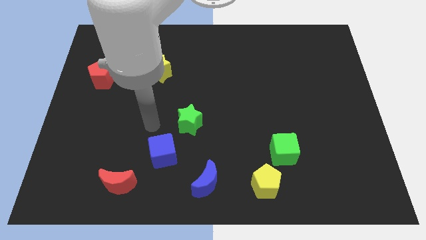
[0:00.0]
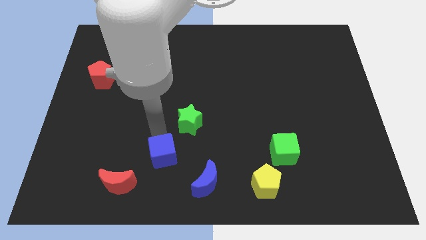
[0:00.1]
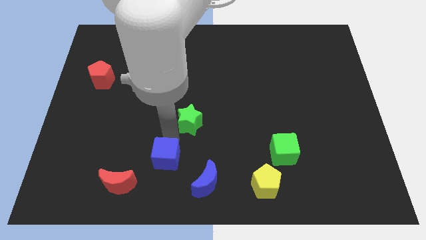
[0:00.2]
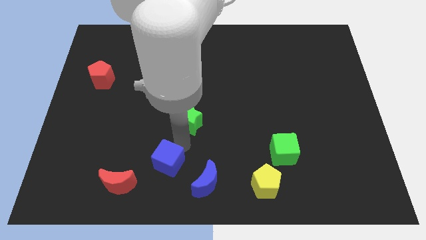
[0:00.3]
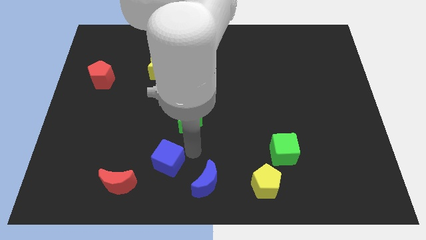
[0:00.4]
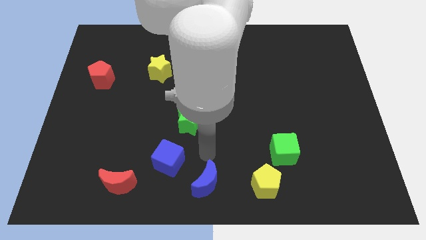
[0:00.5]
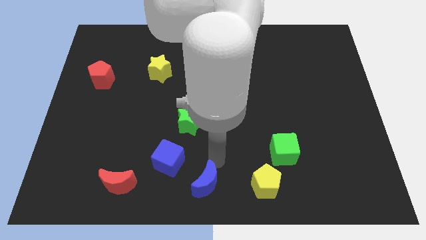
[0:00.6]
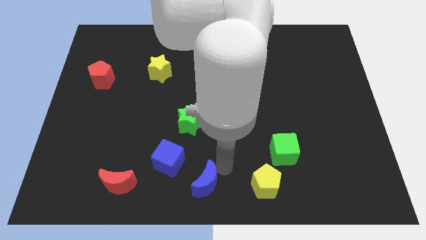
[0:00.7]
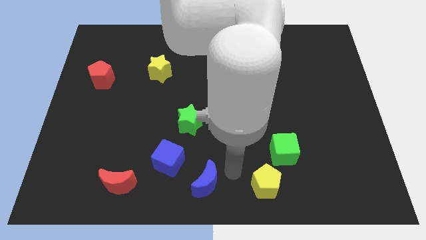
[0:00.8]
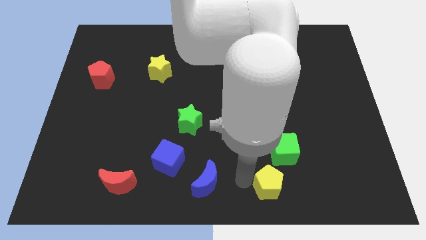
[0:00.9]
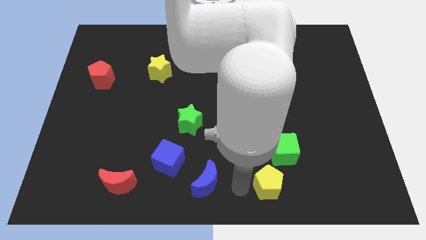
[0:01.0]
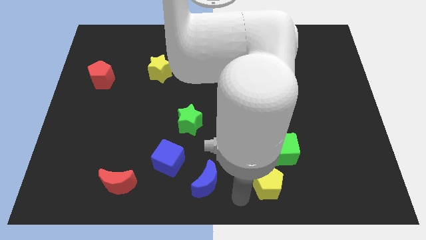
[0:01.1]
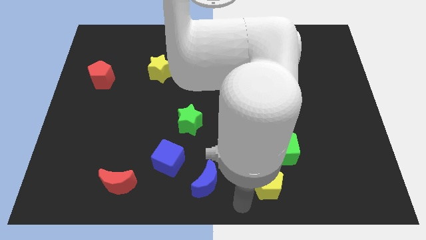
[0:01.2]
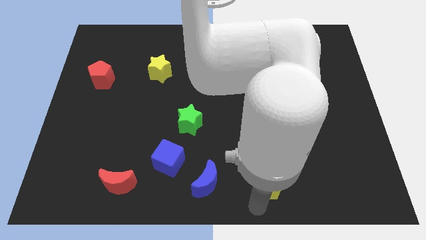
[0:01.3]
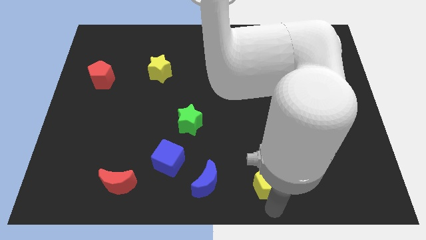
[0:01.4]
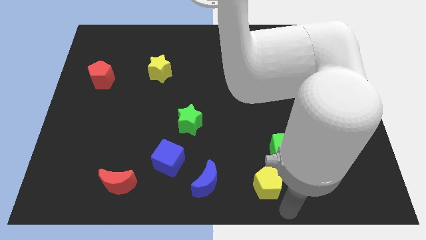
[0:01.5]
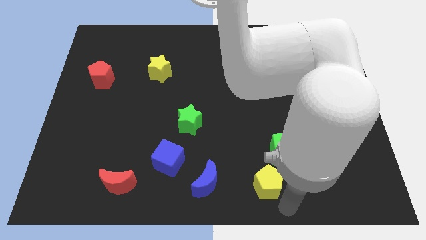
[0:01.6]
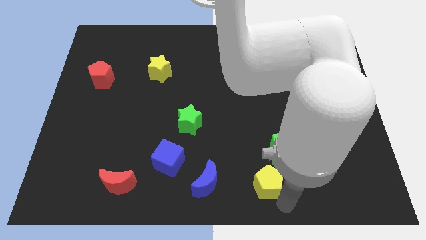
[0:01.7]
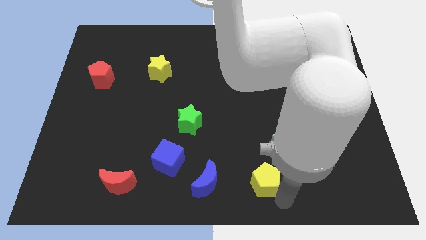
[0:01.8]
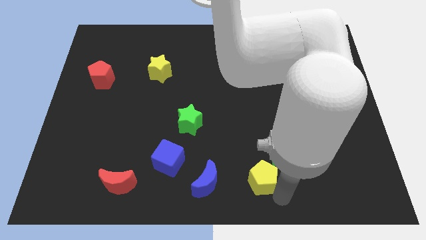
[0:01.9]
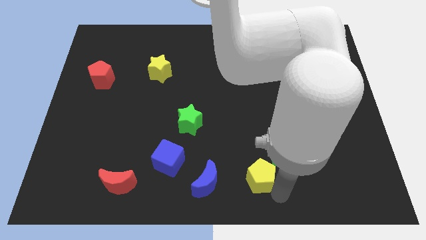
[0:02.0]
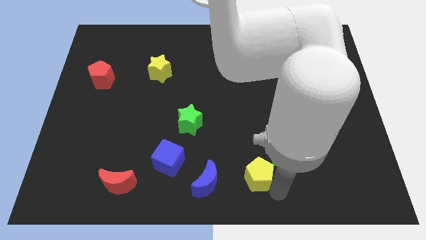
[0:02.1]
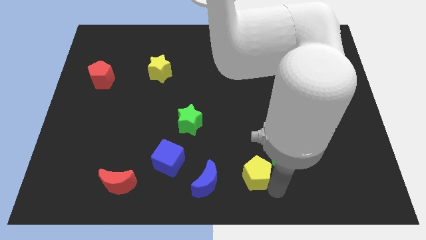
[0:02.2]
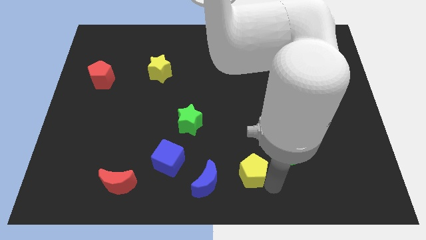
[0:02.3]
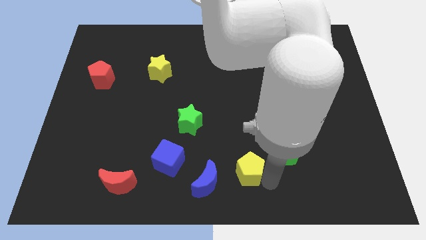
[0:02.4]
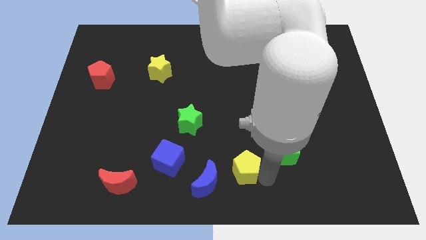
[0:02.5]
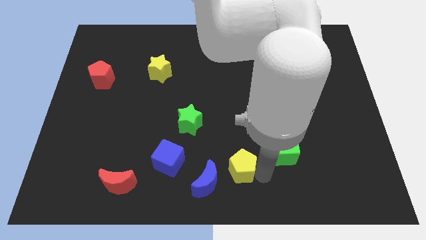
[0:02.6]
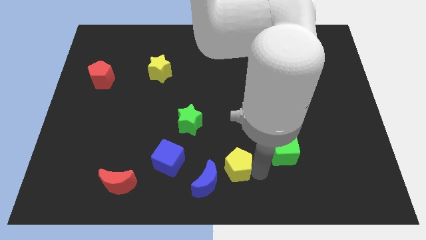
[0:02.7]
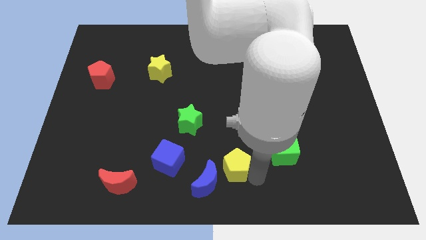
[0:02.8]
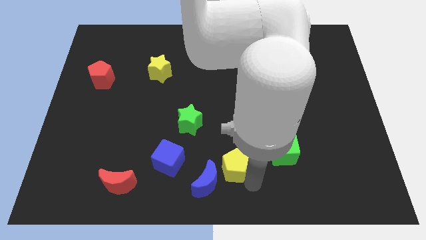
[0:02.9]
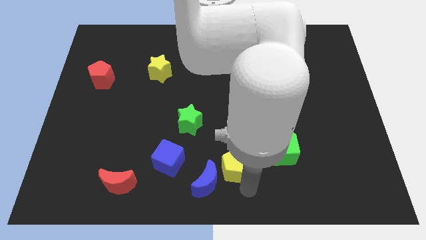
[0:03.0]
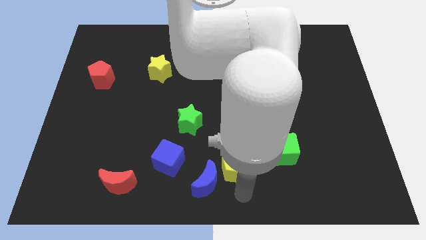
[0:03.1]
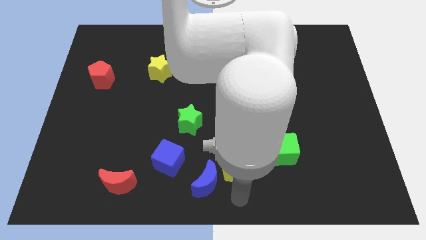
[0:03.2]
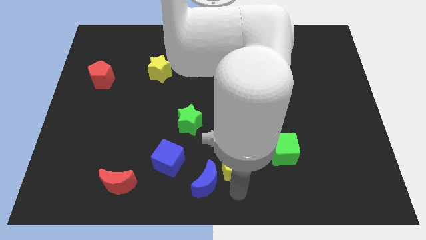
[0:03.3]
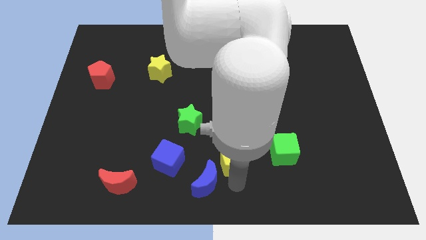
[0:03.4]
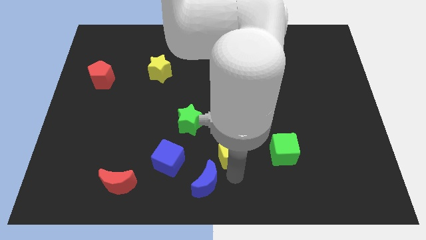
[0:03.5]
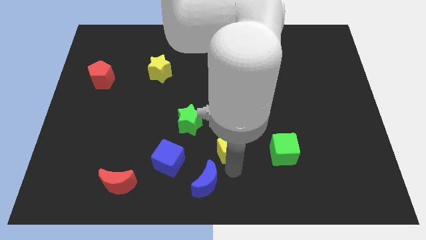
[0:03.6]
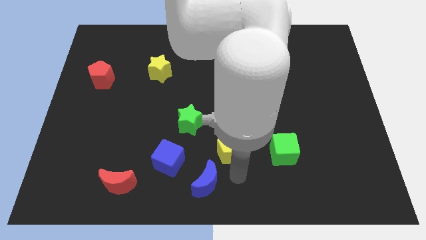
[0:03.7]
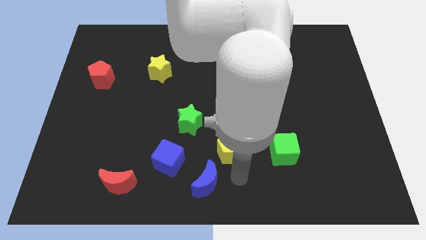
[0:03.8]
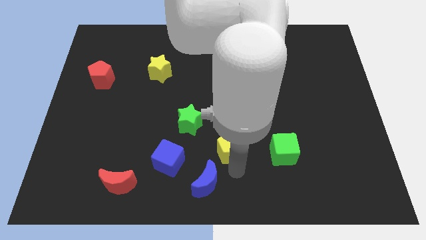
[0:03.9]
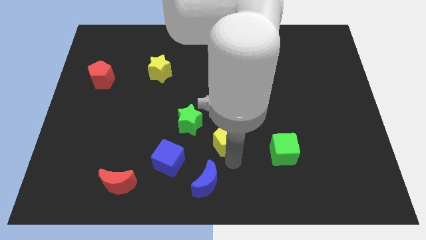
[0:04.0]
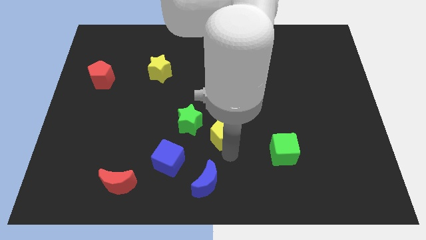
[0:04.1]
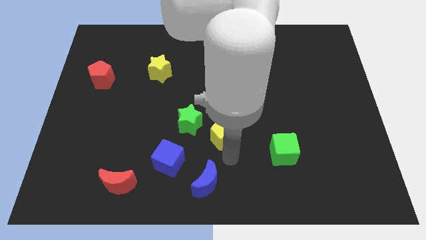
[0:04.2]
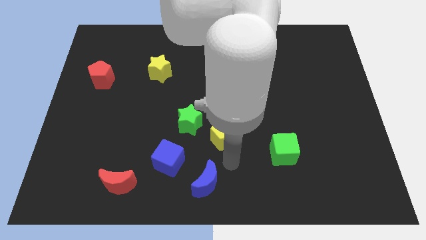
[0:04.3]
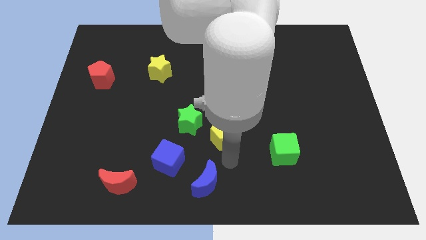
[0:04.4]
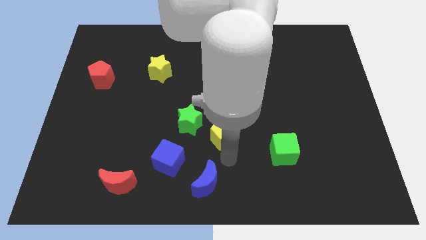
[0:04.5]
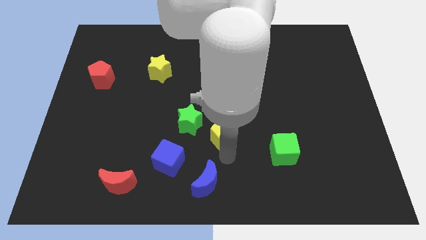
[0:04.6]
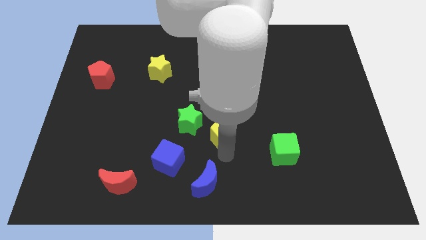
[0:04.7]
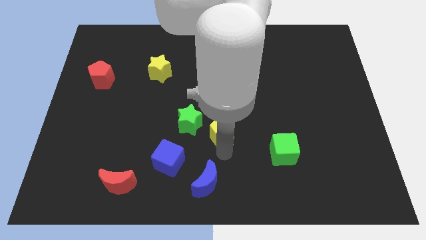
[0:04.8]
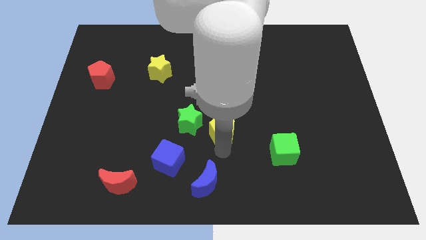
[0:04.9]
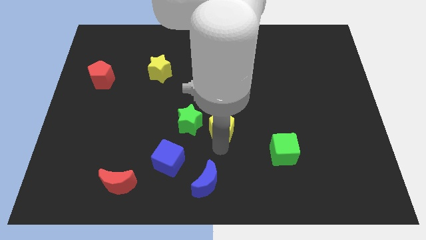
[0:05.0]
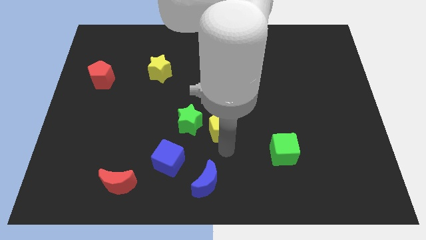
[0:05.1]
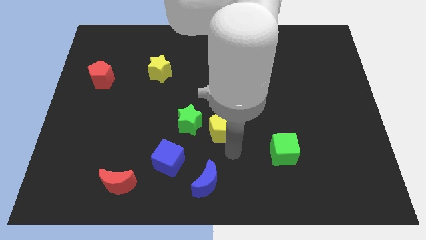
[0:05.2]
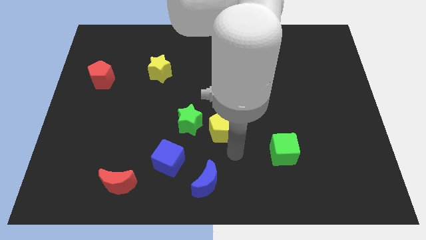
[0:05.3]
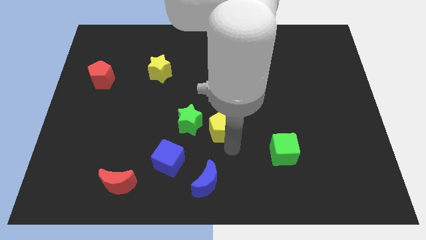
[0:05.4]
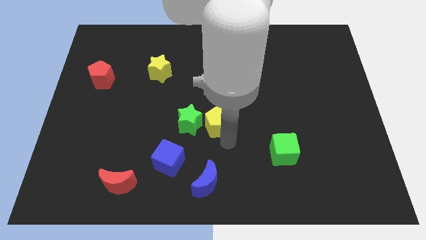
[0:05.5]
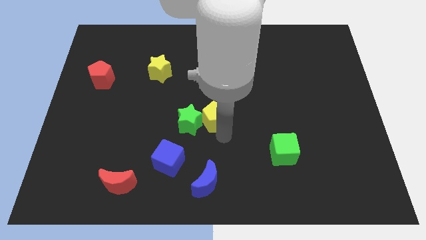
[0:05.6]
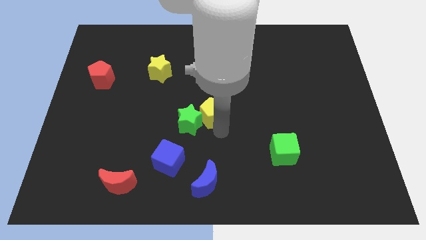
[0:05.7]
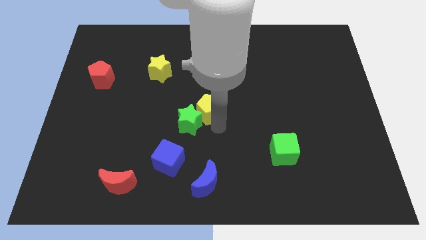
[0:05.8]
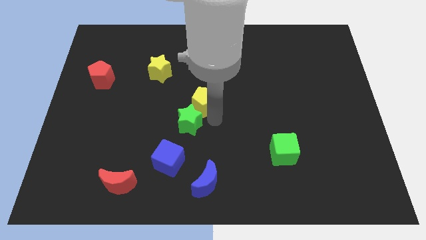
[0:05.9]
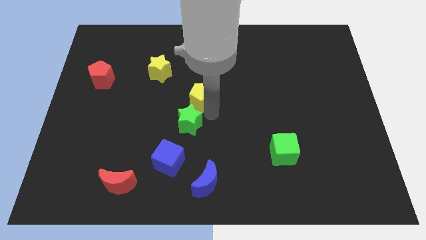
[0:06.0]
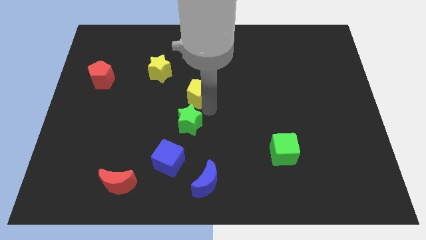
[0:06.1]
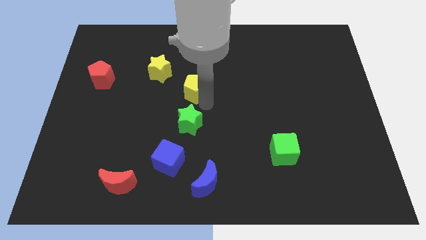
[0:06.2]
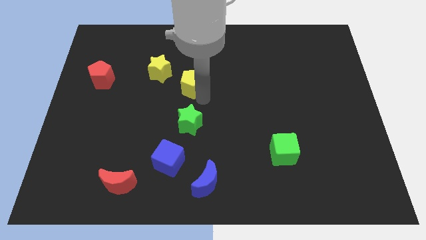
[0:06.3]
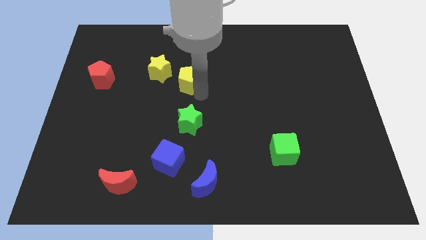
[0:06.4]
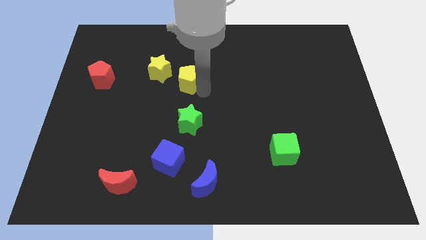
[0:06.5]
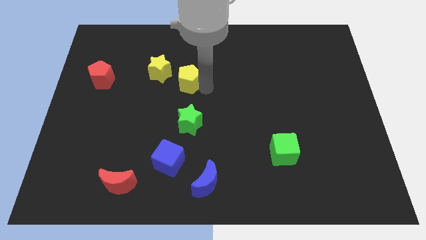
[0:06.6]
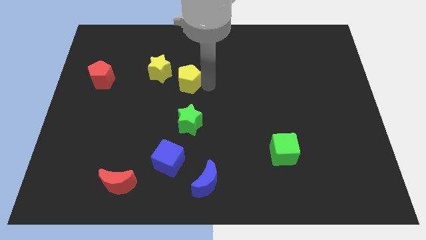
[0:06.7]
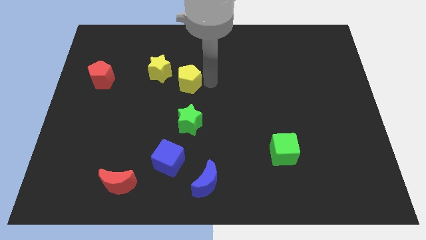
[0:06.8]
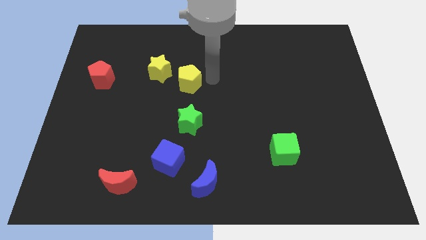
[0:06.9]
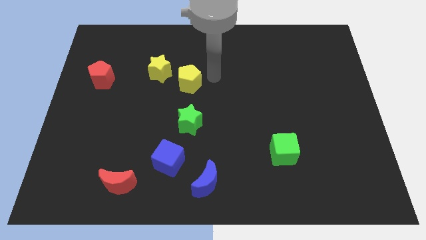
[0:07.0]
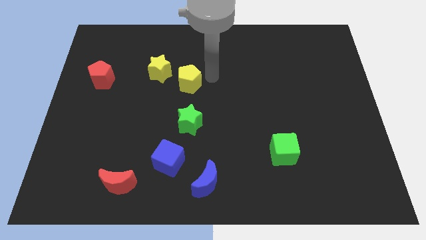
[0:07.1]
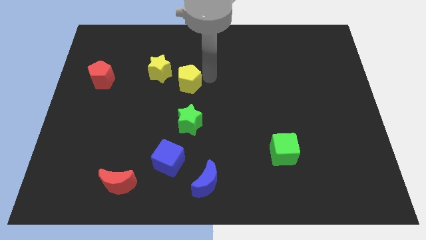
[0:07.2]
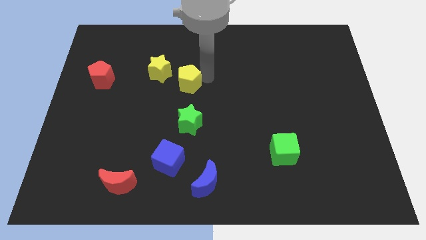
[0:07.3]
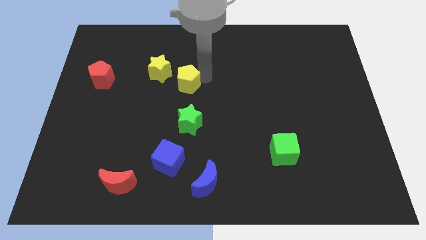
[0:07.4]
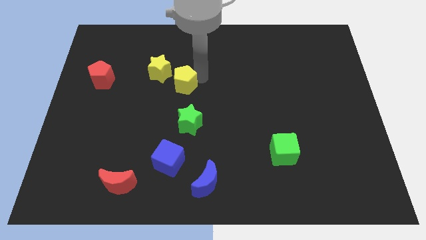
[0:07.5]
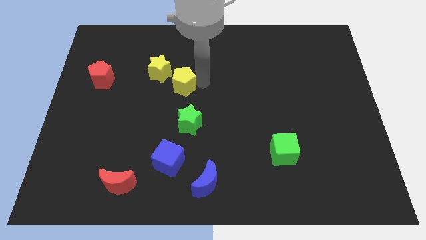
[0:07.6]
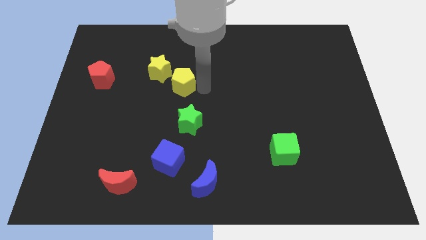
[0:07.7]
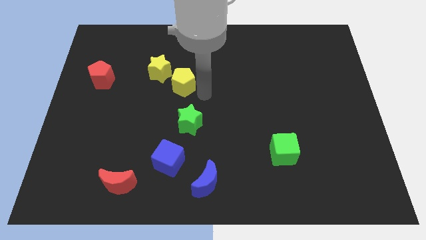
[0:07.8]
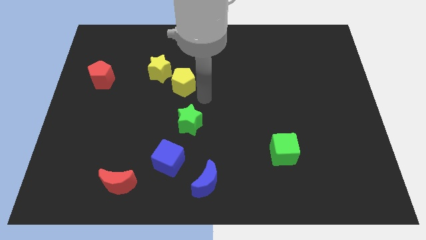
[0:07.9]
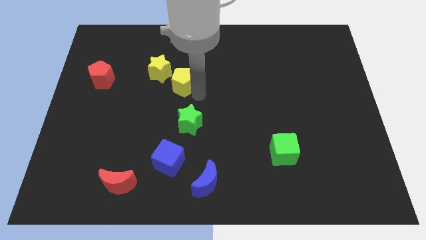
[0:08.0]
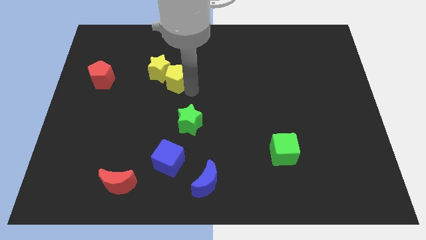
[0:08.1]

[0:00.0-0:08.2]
slide the yellow pentagon to the yellow star
